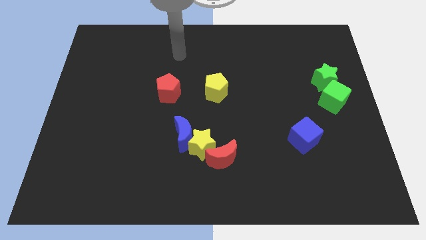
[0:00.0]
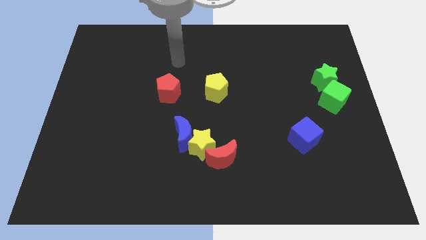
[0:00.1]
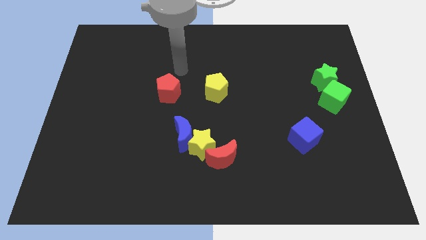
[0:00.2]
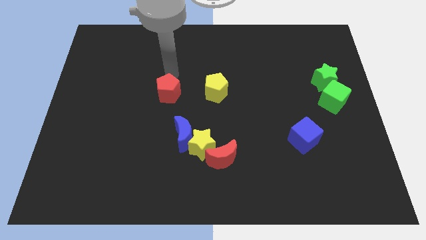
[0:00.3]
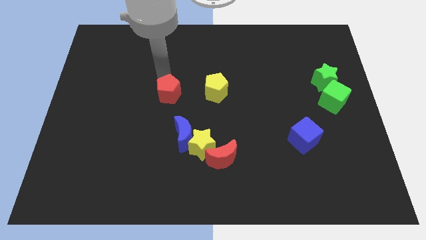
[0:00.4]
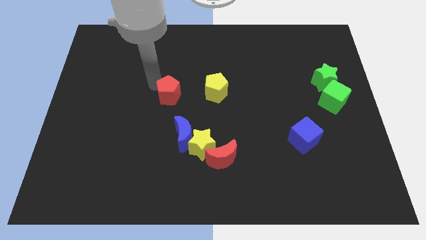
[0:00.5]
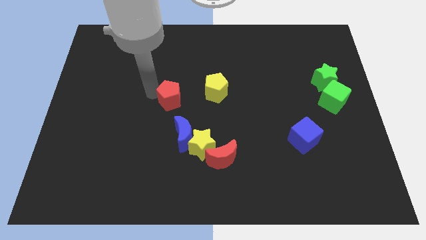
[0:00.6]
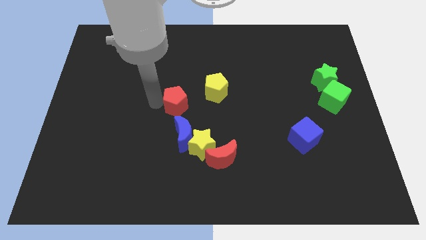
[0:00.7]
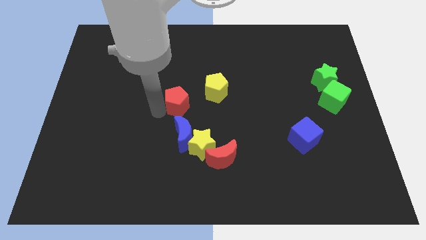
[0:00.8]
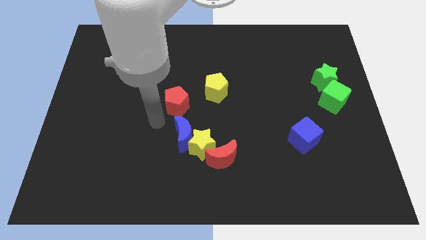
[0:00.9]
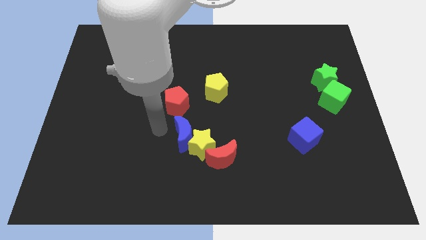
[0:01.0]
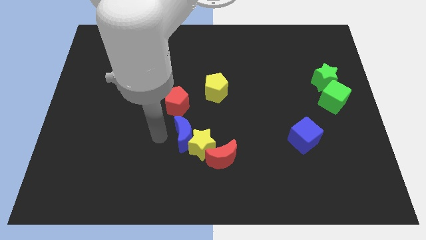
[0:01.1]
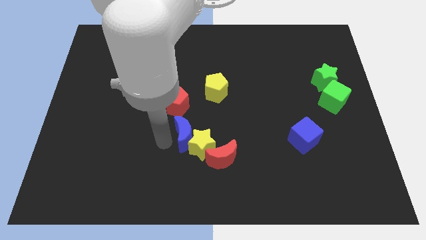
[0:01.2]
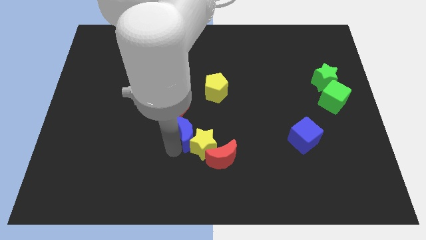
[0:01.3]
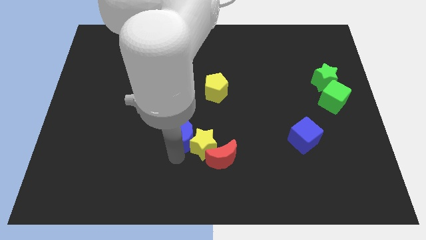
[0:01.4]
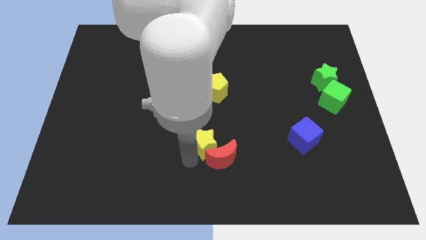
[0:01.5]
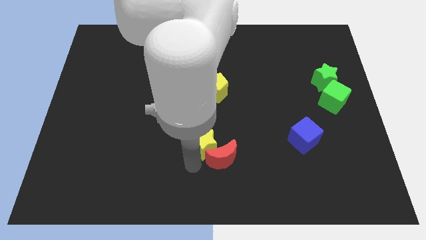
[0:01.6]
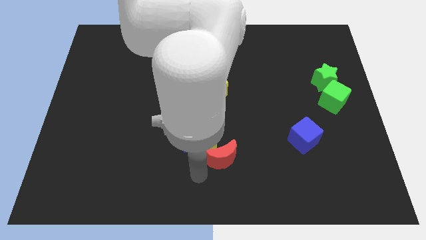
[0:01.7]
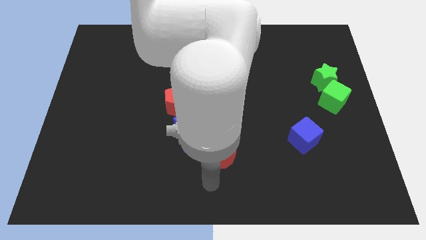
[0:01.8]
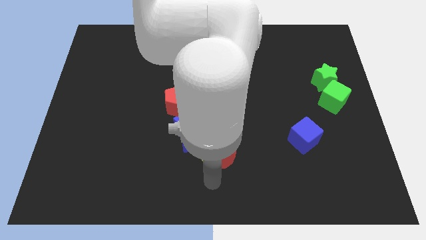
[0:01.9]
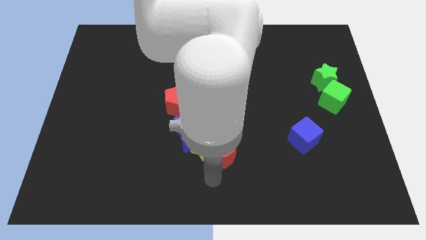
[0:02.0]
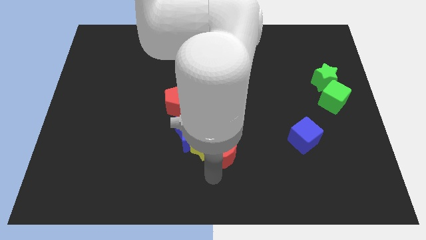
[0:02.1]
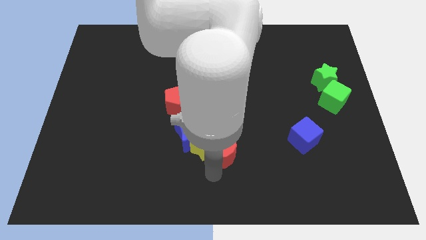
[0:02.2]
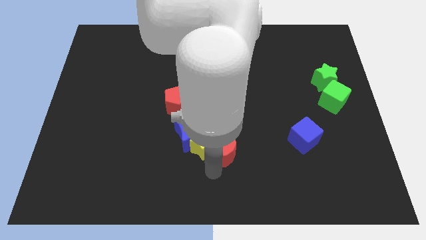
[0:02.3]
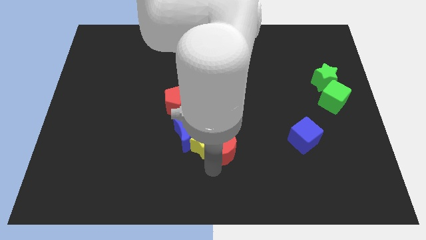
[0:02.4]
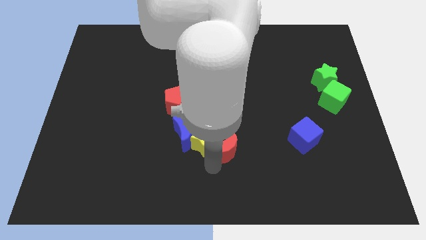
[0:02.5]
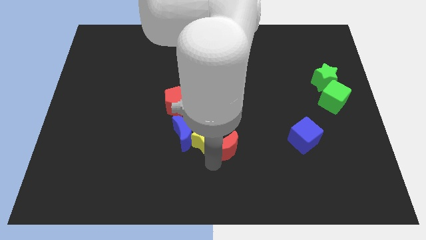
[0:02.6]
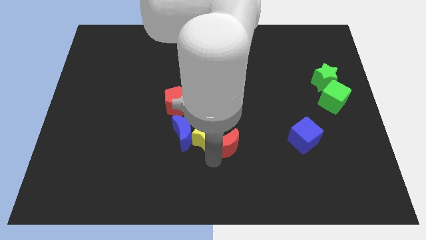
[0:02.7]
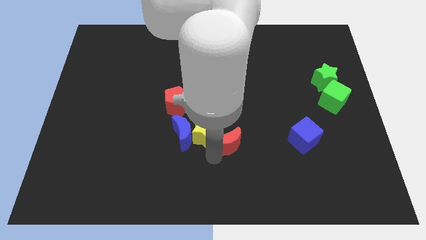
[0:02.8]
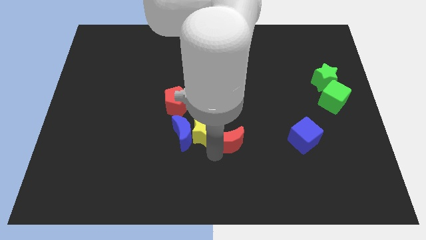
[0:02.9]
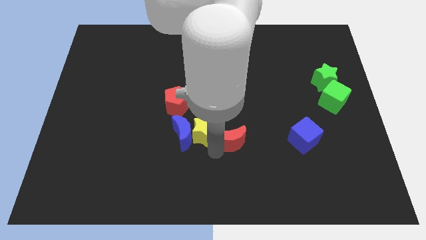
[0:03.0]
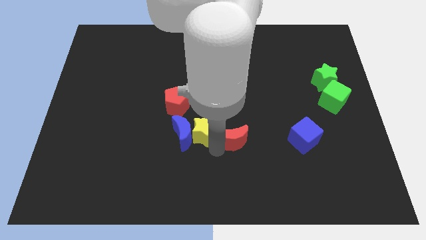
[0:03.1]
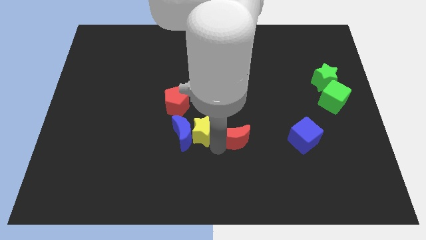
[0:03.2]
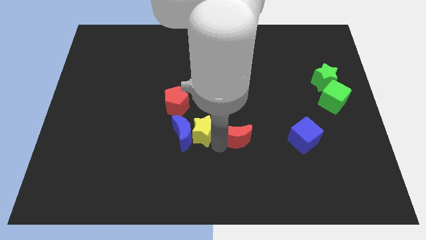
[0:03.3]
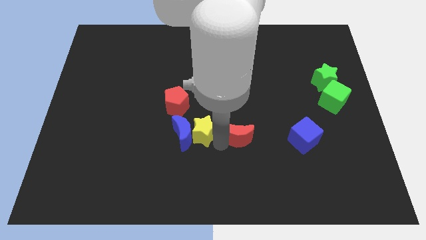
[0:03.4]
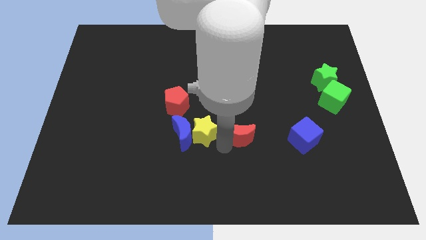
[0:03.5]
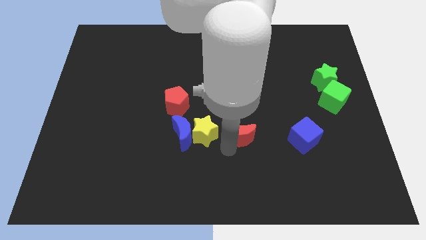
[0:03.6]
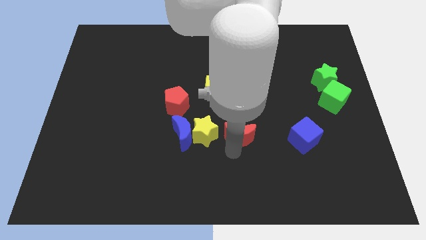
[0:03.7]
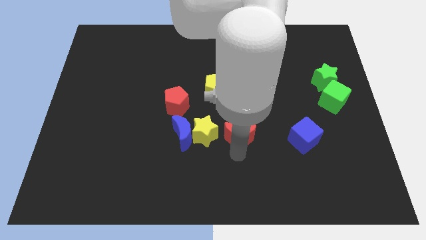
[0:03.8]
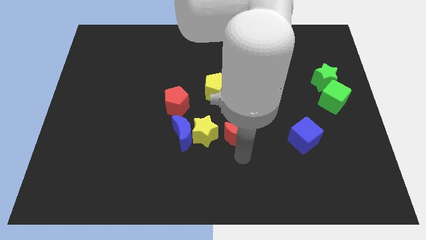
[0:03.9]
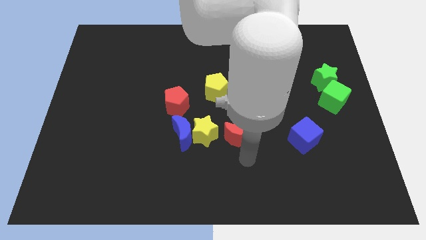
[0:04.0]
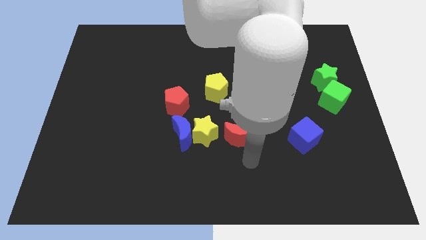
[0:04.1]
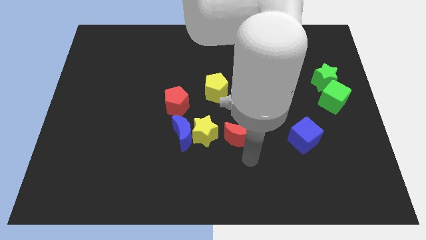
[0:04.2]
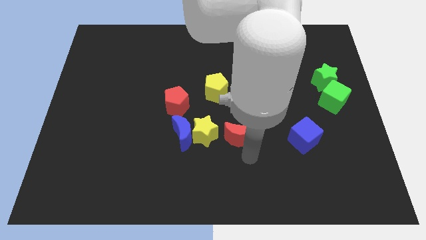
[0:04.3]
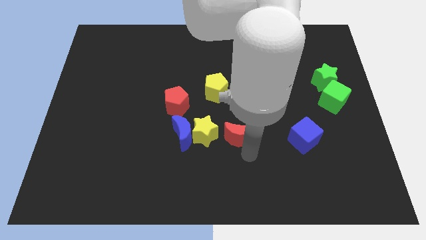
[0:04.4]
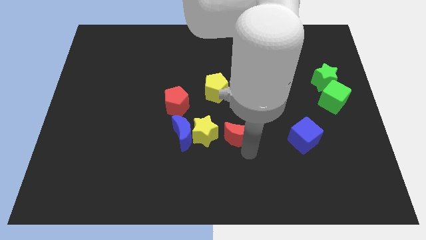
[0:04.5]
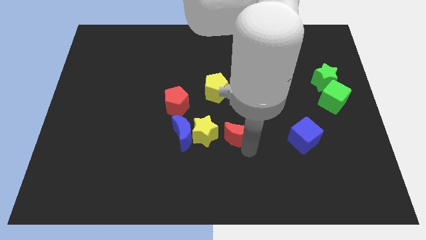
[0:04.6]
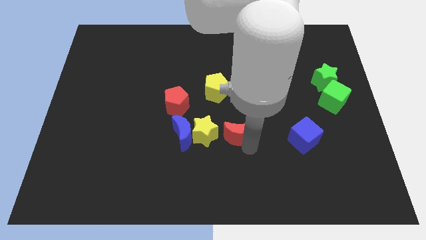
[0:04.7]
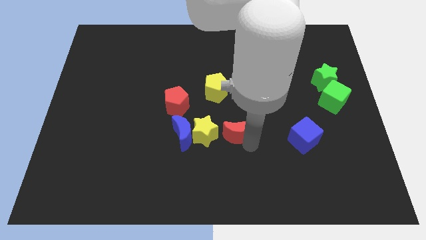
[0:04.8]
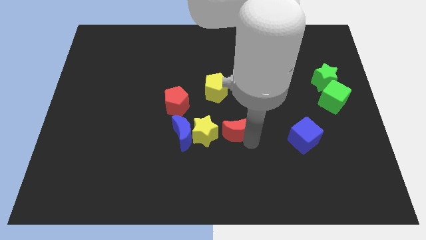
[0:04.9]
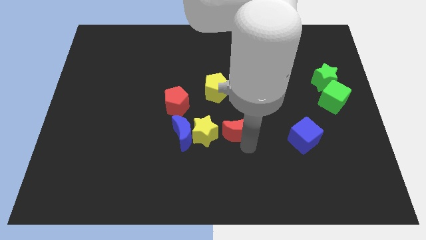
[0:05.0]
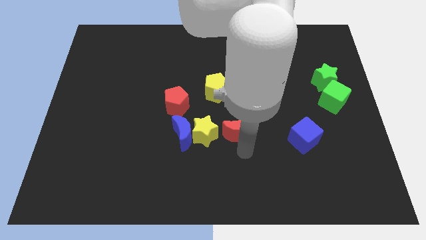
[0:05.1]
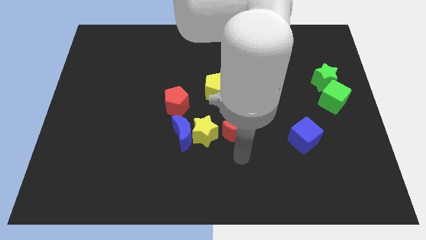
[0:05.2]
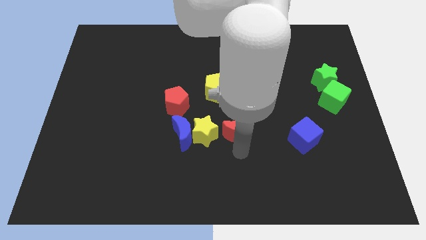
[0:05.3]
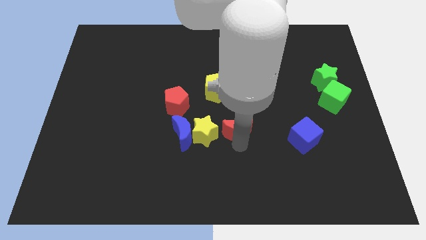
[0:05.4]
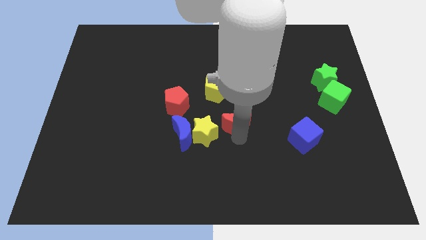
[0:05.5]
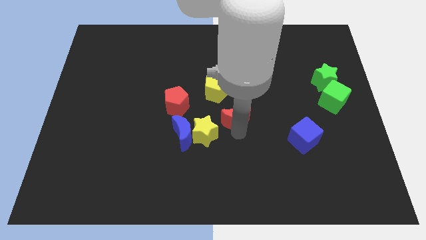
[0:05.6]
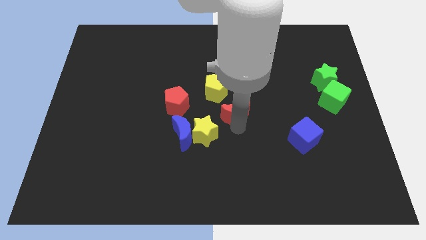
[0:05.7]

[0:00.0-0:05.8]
push the red moon to the right side of the red pentagon

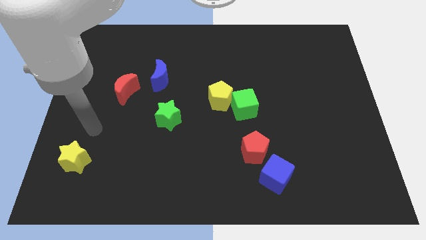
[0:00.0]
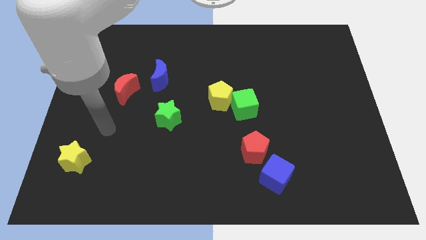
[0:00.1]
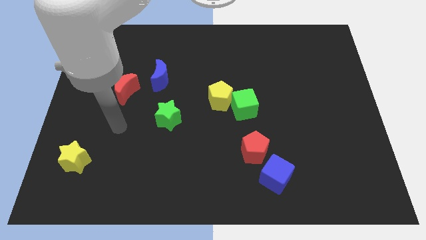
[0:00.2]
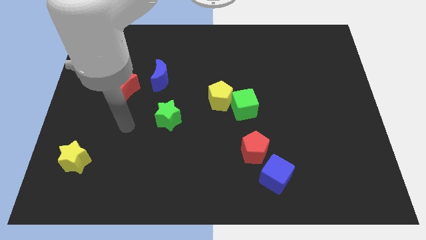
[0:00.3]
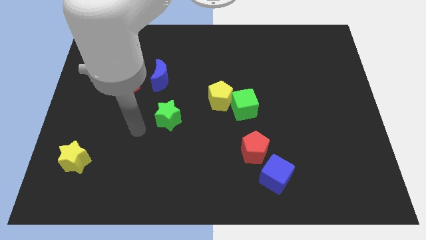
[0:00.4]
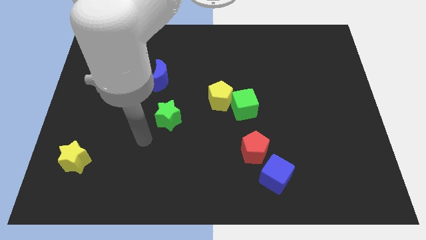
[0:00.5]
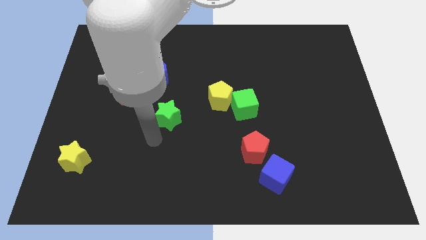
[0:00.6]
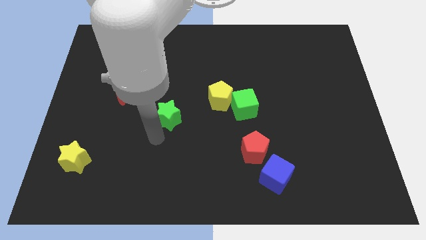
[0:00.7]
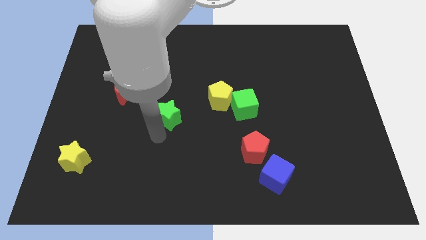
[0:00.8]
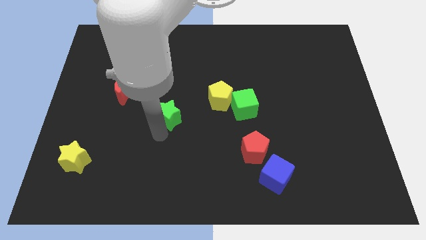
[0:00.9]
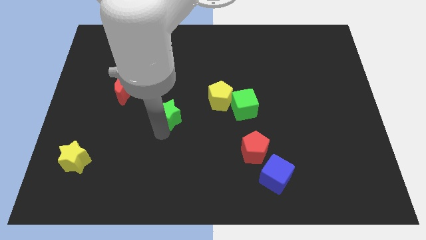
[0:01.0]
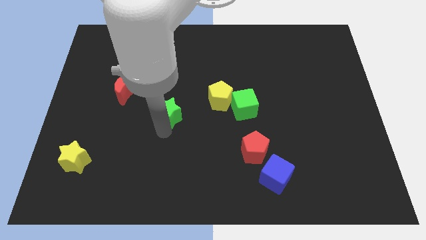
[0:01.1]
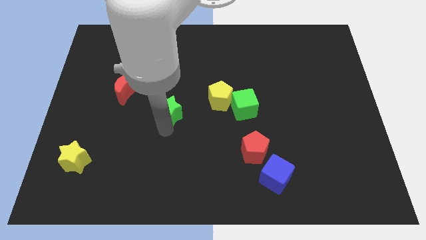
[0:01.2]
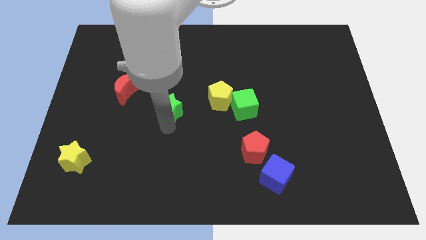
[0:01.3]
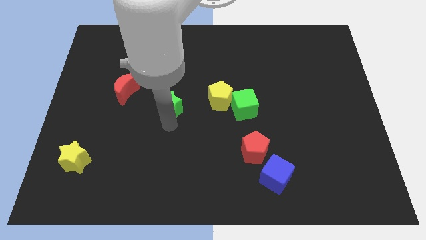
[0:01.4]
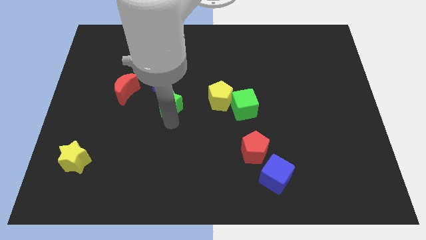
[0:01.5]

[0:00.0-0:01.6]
move the green star right of the red moon
